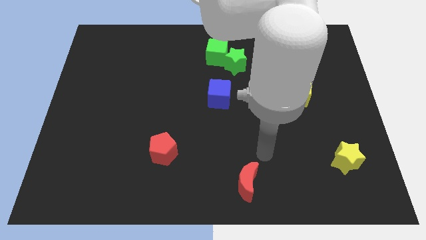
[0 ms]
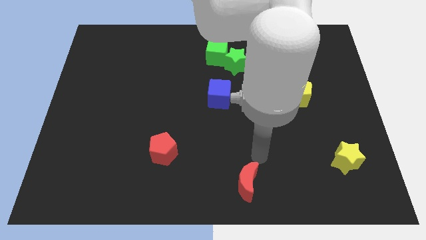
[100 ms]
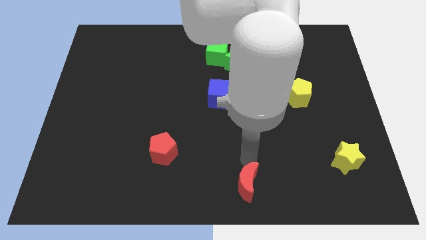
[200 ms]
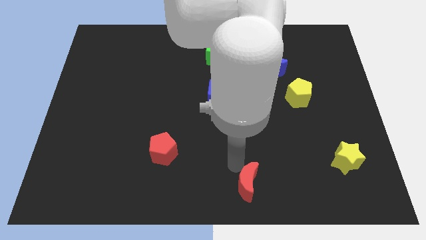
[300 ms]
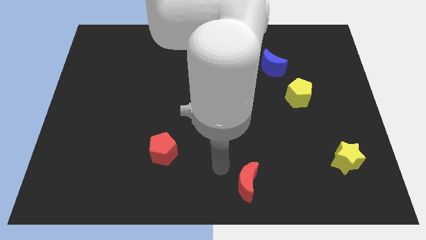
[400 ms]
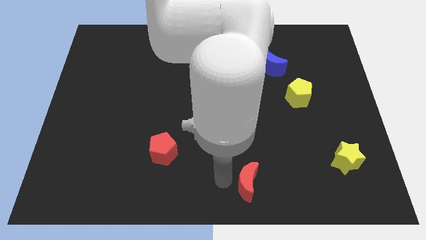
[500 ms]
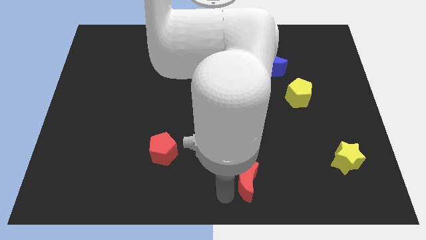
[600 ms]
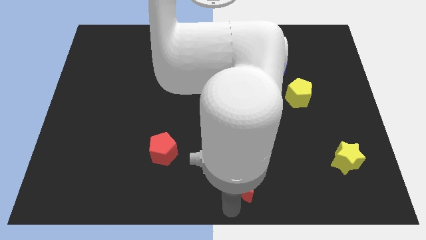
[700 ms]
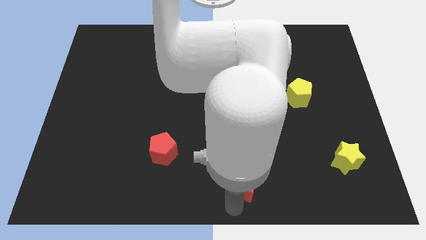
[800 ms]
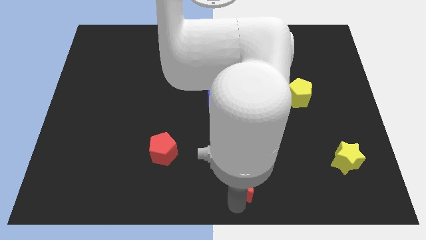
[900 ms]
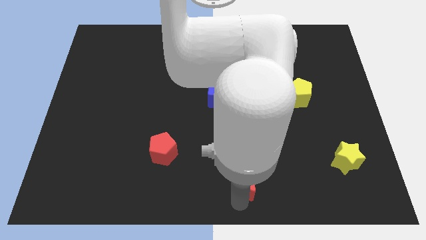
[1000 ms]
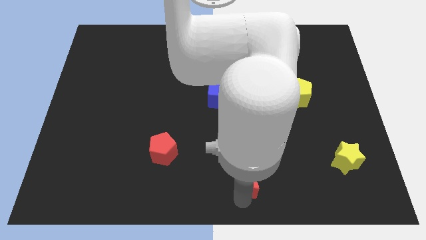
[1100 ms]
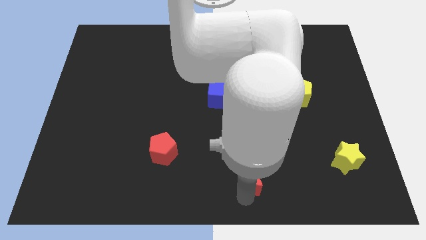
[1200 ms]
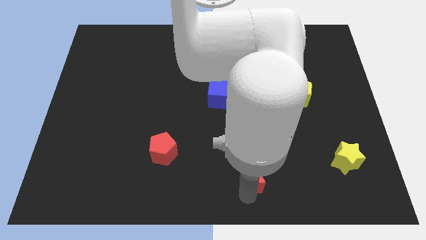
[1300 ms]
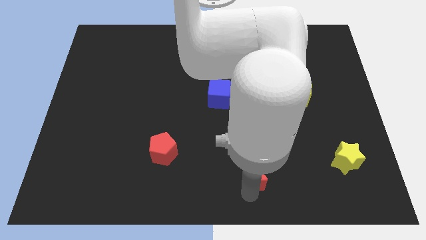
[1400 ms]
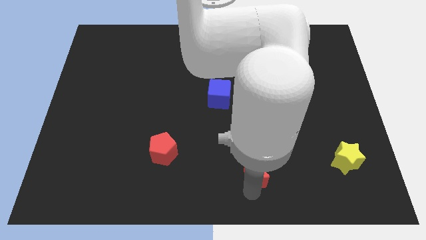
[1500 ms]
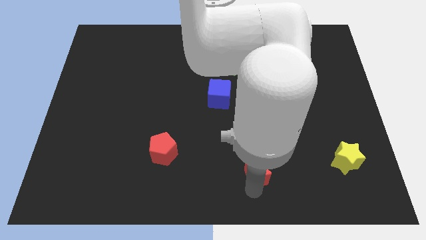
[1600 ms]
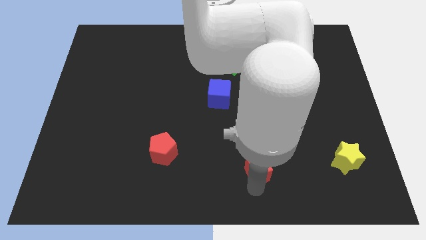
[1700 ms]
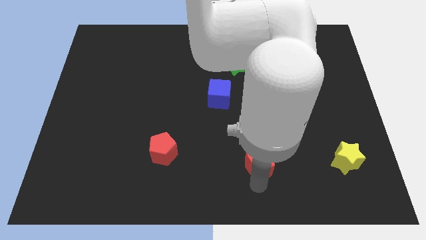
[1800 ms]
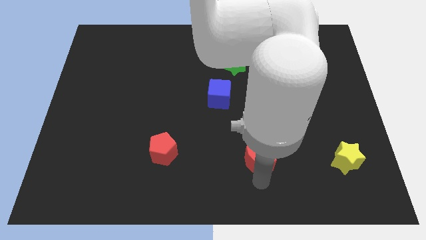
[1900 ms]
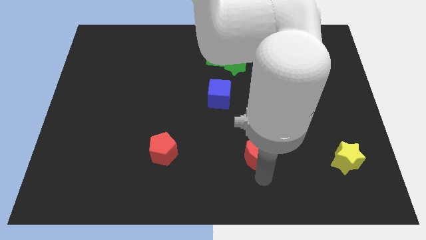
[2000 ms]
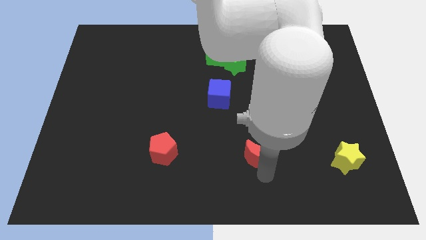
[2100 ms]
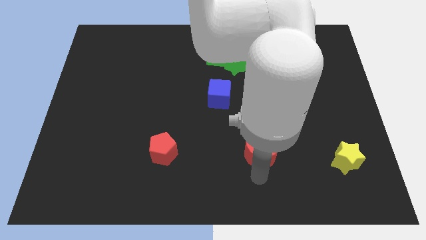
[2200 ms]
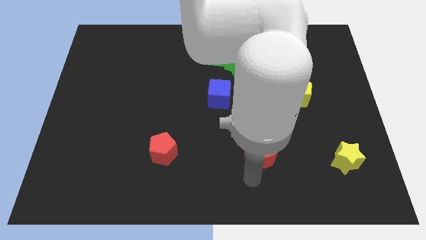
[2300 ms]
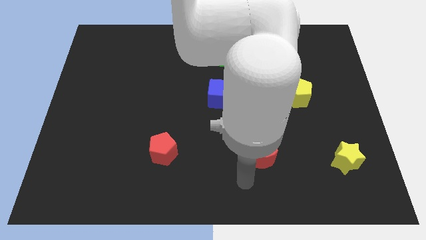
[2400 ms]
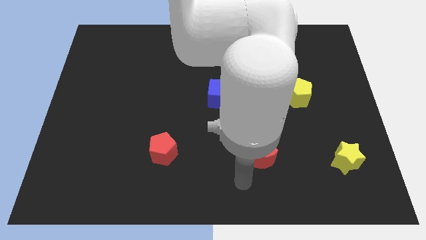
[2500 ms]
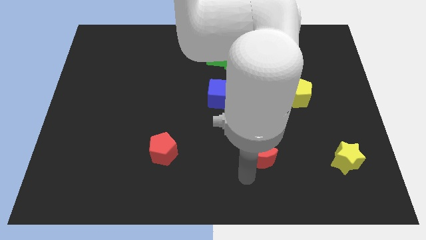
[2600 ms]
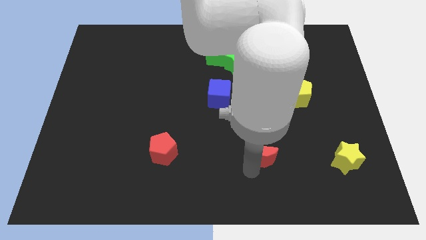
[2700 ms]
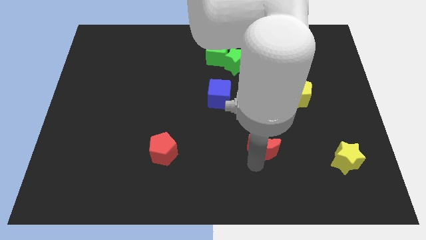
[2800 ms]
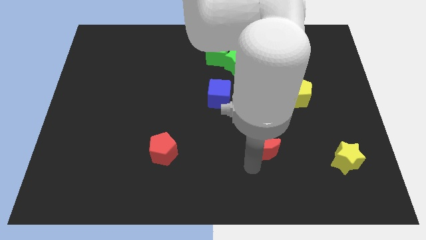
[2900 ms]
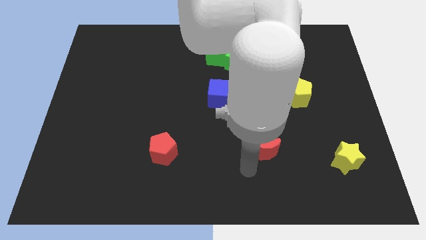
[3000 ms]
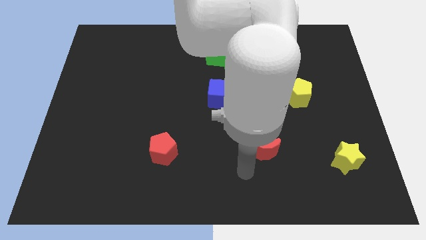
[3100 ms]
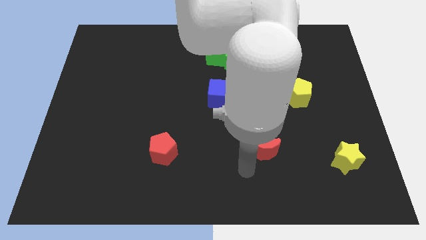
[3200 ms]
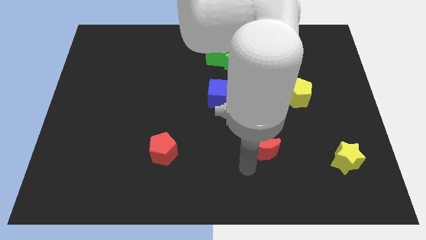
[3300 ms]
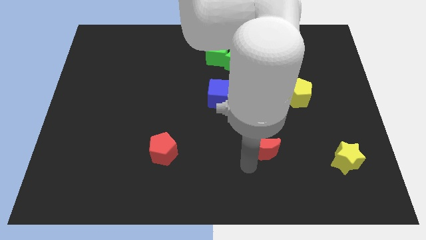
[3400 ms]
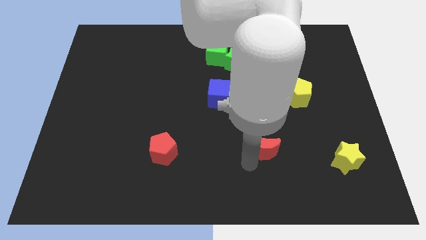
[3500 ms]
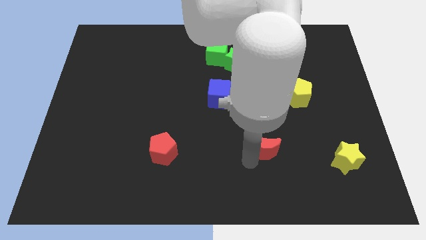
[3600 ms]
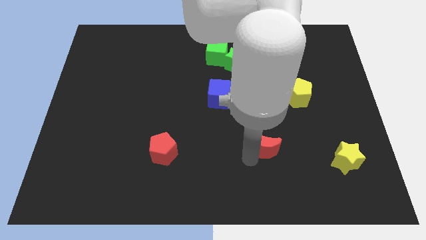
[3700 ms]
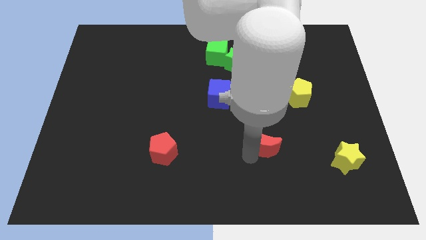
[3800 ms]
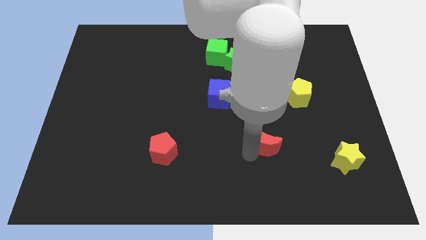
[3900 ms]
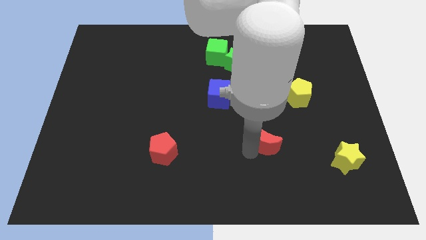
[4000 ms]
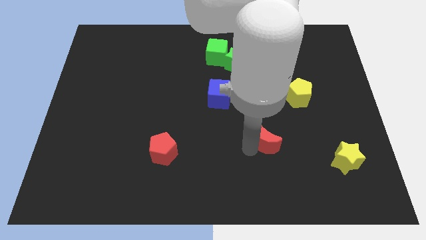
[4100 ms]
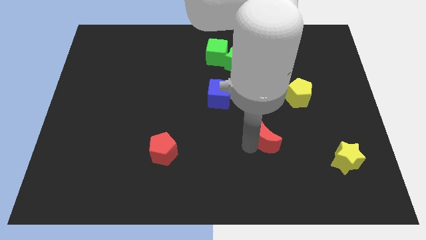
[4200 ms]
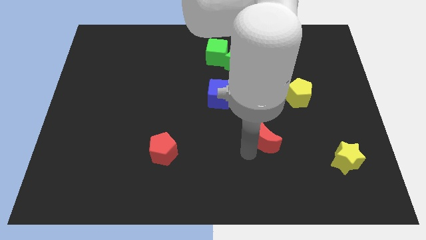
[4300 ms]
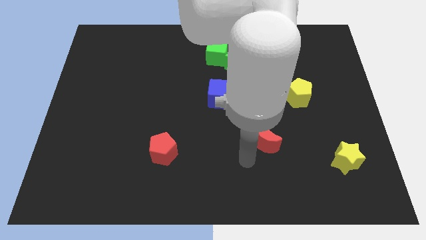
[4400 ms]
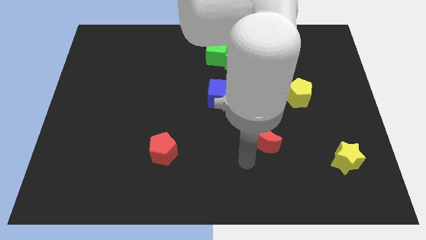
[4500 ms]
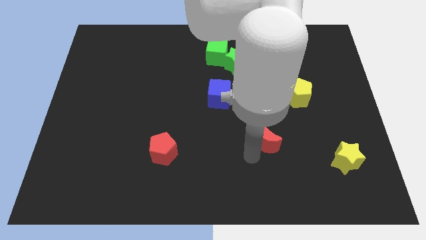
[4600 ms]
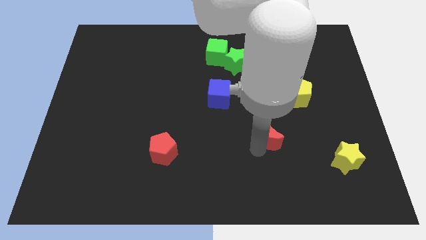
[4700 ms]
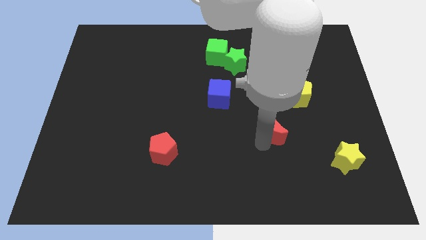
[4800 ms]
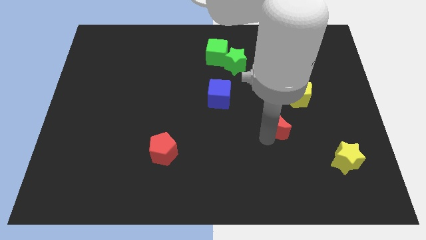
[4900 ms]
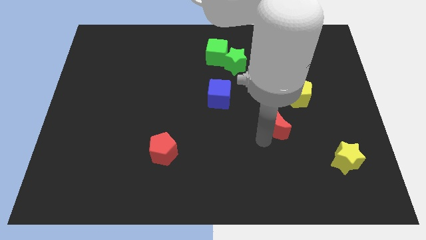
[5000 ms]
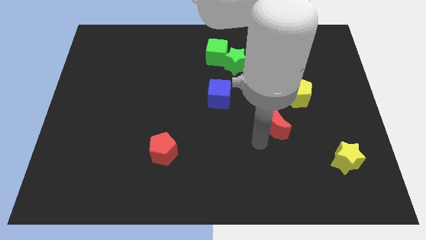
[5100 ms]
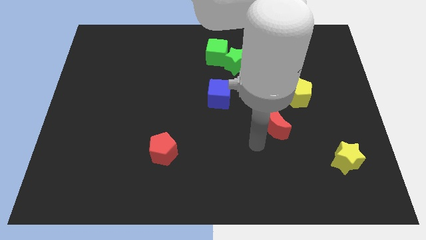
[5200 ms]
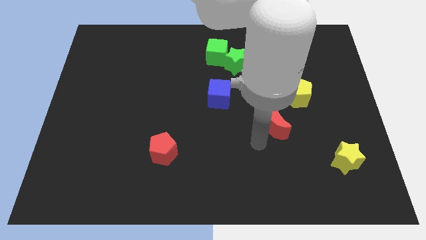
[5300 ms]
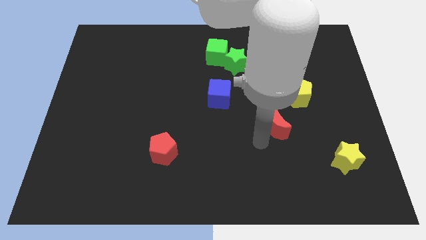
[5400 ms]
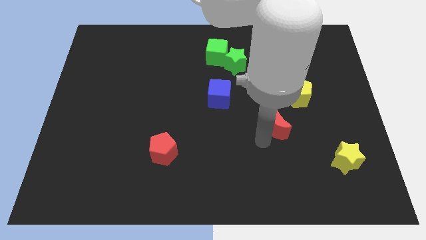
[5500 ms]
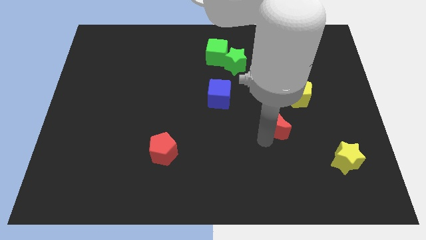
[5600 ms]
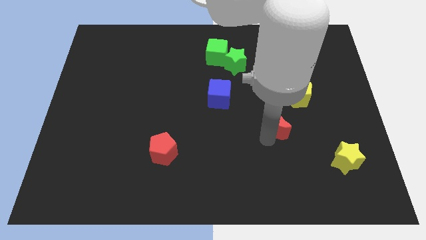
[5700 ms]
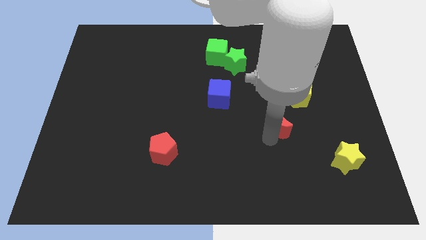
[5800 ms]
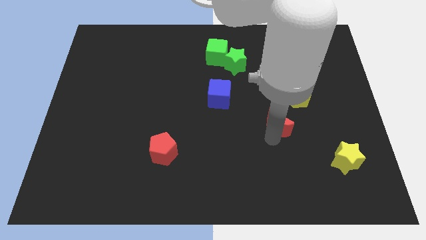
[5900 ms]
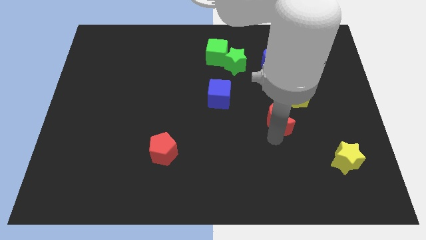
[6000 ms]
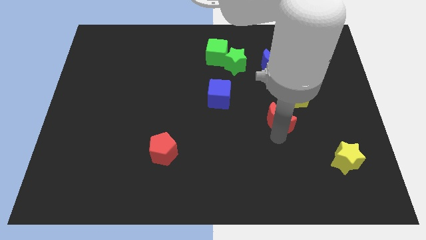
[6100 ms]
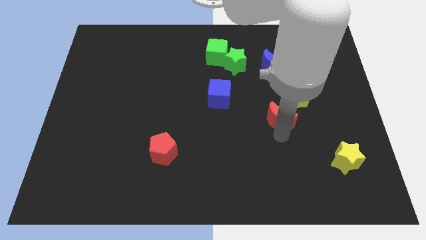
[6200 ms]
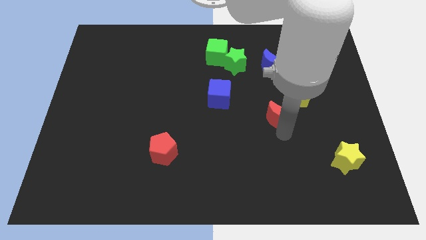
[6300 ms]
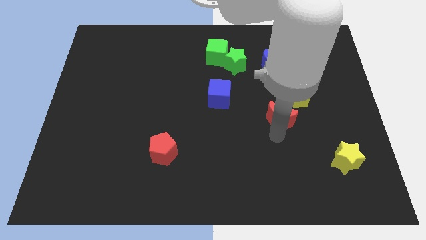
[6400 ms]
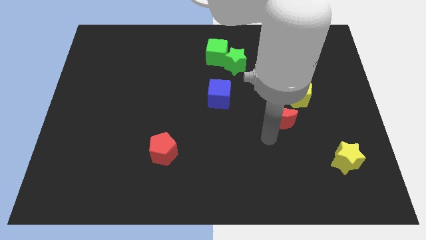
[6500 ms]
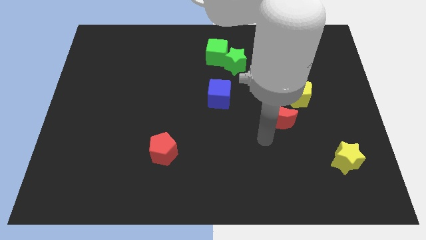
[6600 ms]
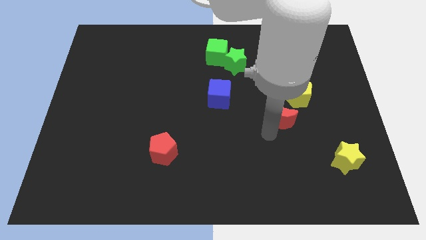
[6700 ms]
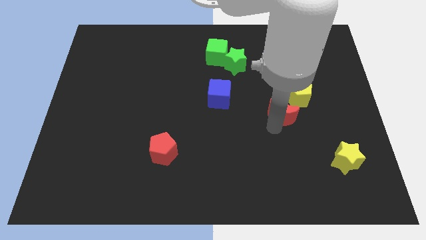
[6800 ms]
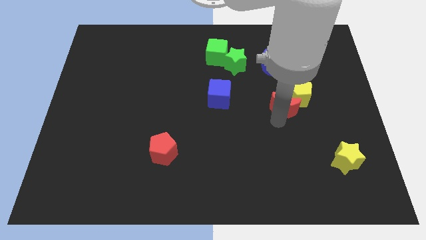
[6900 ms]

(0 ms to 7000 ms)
move the red moon towards the yellow pentagon
